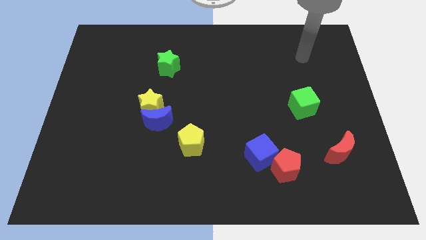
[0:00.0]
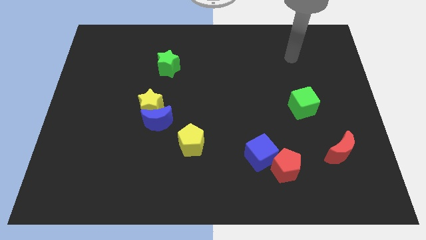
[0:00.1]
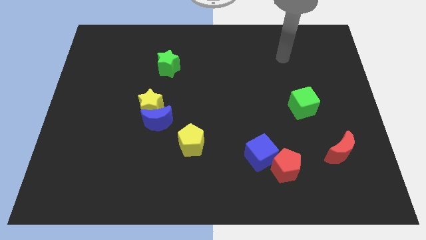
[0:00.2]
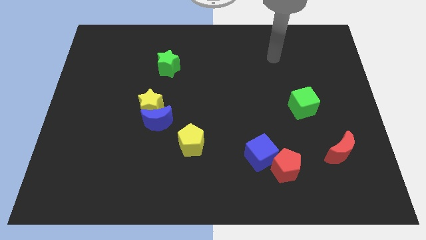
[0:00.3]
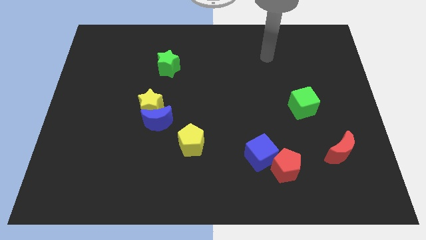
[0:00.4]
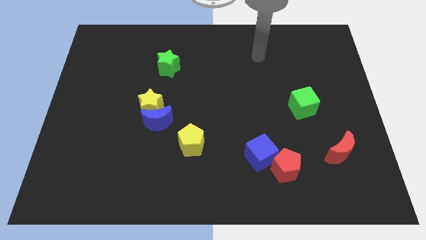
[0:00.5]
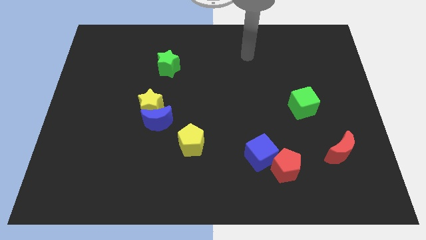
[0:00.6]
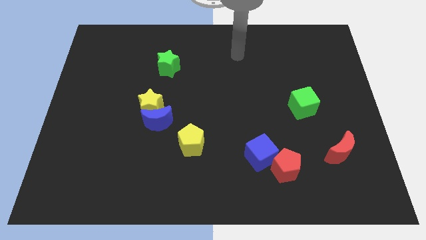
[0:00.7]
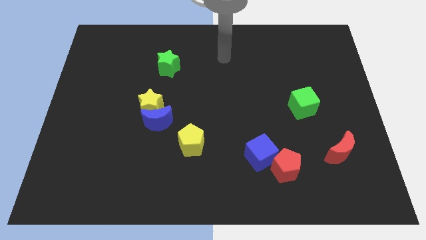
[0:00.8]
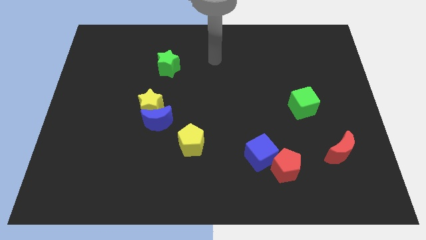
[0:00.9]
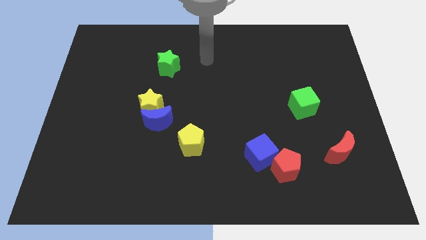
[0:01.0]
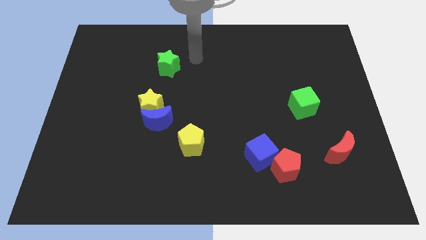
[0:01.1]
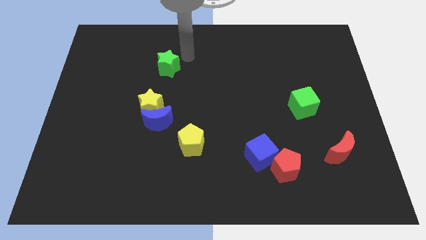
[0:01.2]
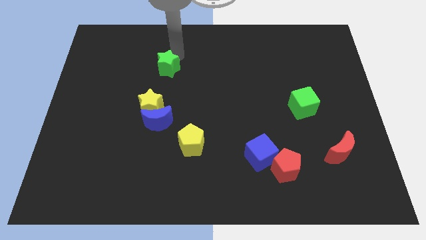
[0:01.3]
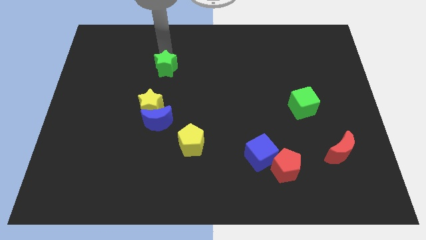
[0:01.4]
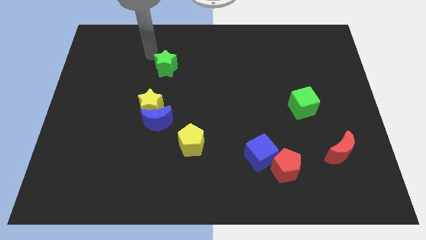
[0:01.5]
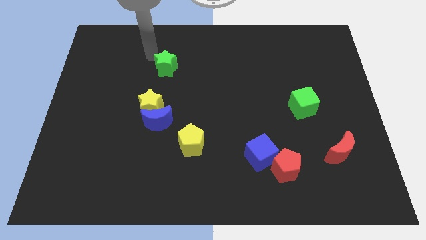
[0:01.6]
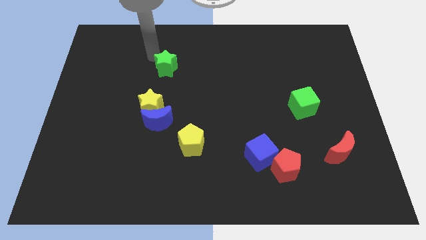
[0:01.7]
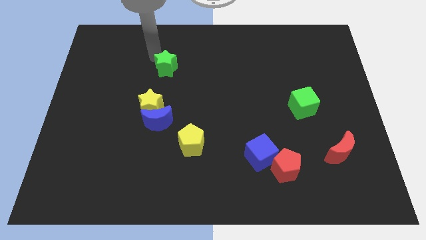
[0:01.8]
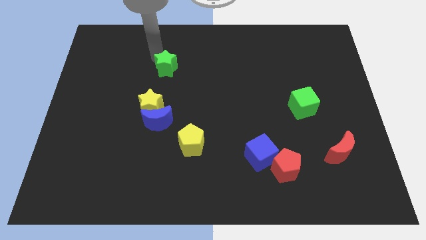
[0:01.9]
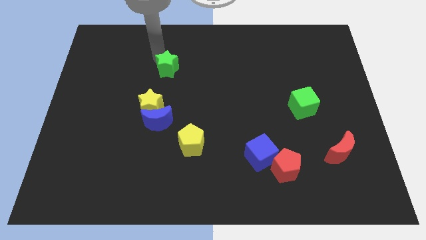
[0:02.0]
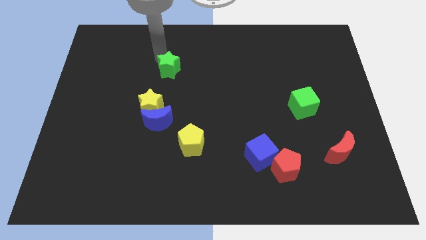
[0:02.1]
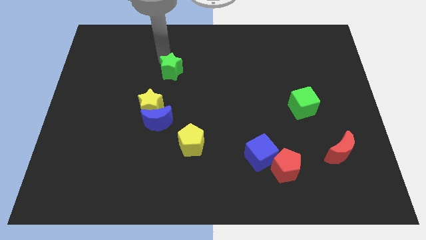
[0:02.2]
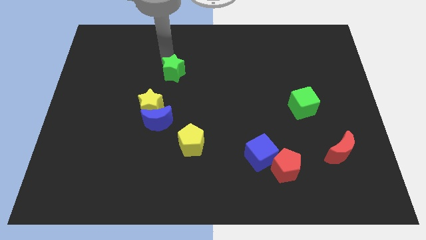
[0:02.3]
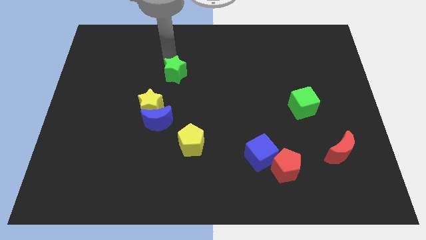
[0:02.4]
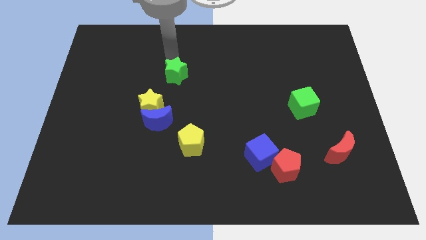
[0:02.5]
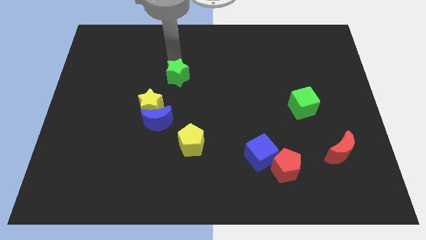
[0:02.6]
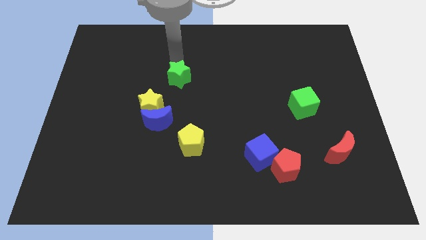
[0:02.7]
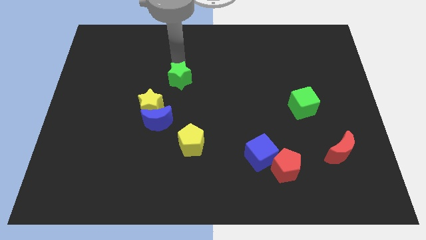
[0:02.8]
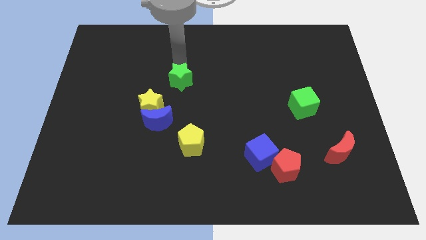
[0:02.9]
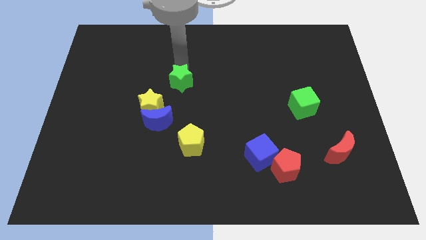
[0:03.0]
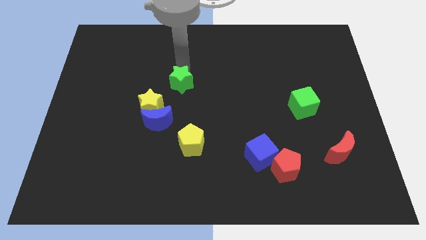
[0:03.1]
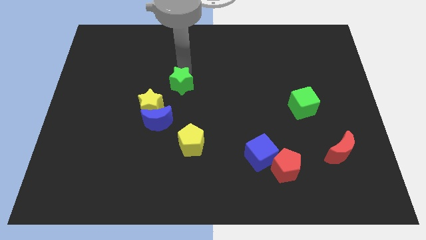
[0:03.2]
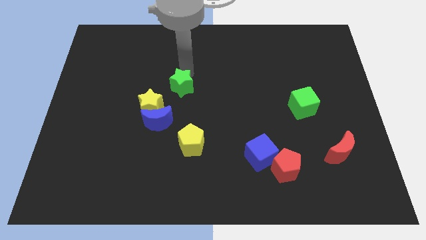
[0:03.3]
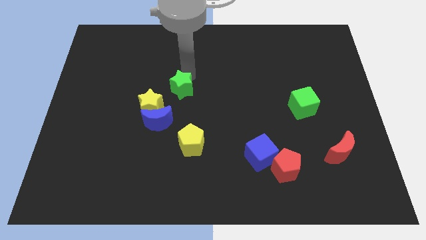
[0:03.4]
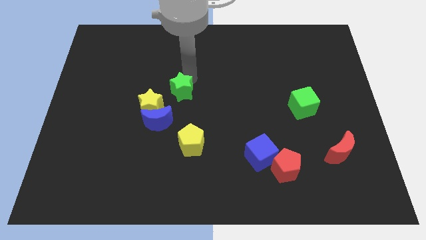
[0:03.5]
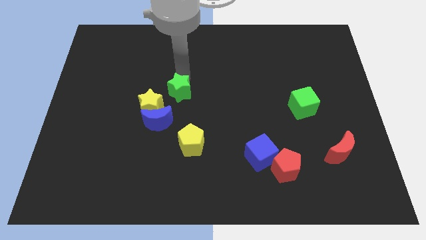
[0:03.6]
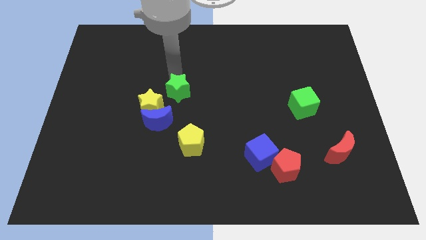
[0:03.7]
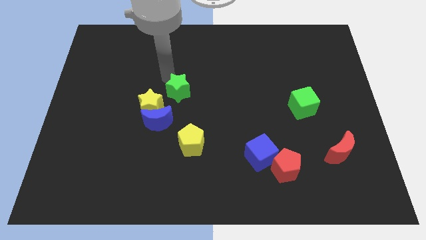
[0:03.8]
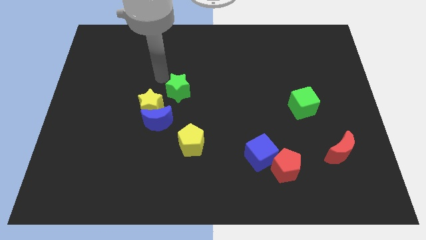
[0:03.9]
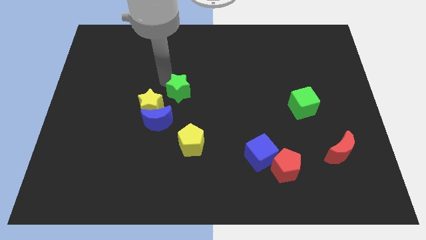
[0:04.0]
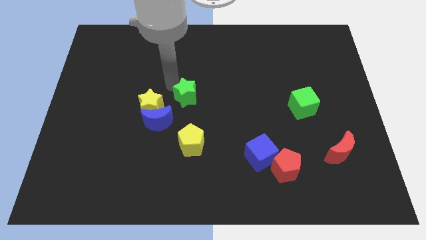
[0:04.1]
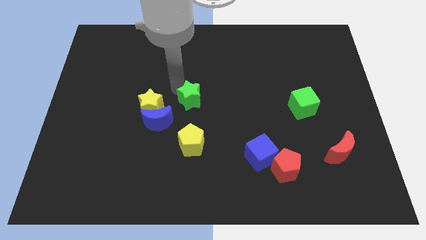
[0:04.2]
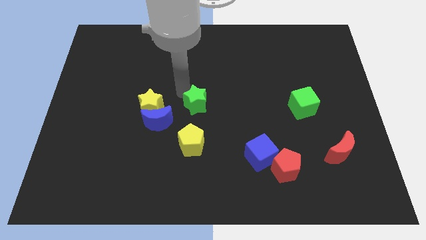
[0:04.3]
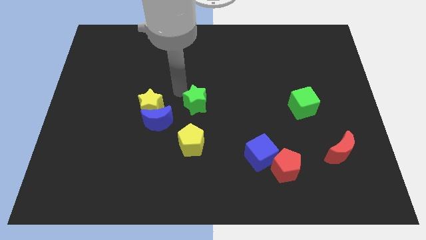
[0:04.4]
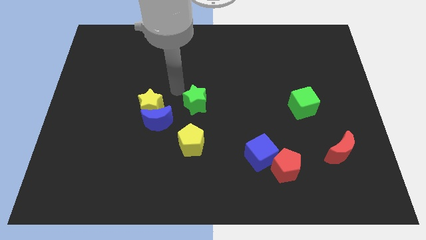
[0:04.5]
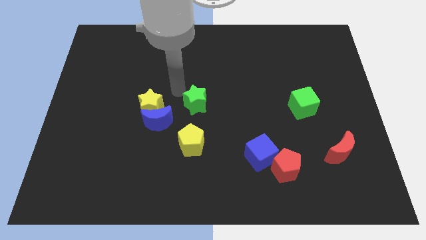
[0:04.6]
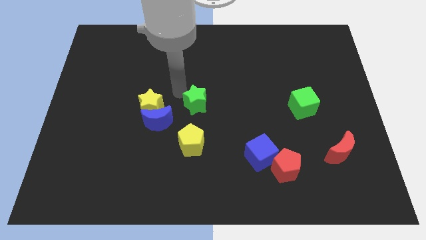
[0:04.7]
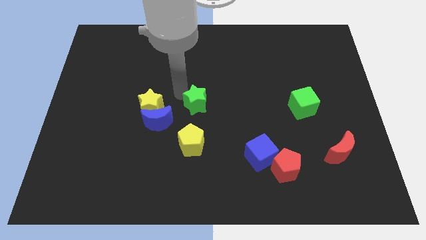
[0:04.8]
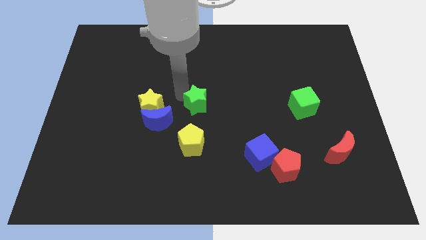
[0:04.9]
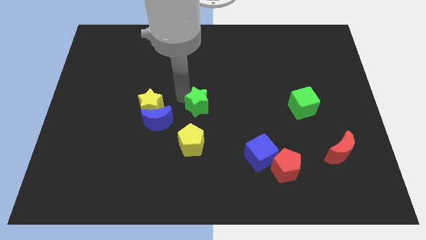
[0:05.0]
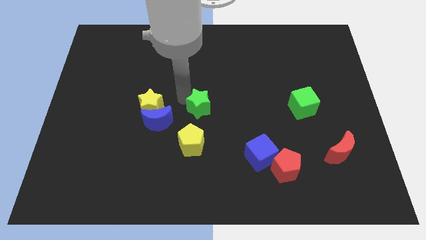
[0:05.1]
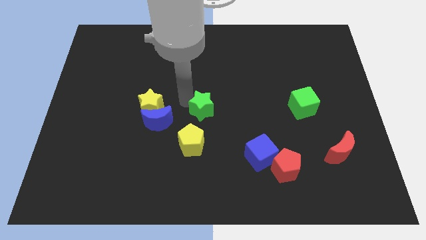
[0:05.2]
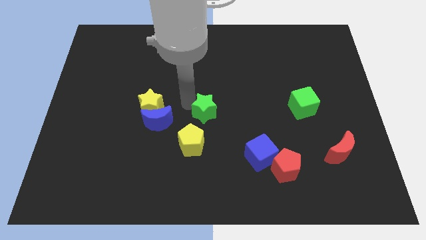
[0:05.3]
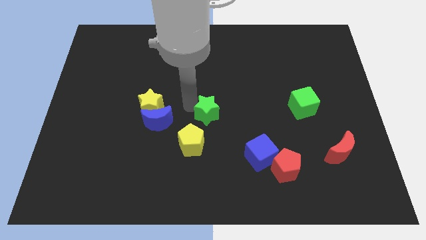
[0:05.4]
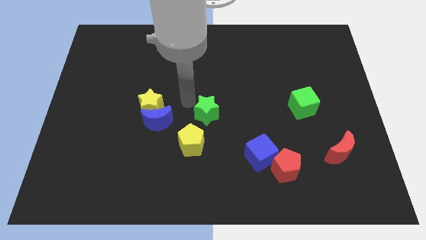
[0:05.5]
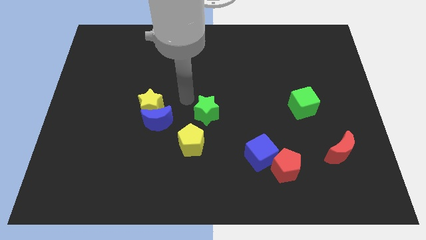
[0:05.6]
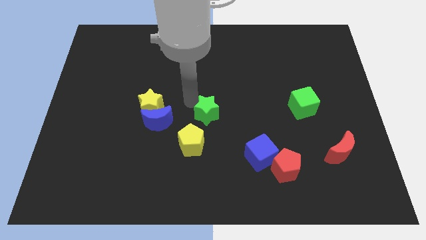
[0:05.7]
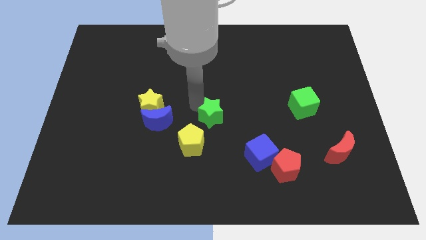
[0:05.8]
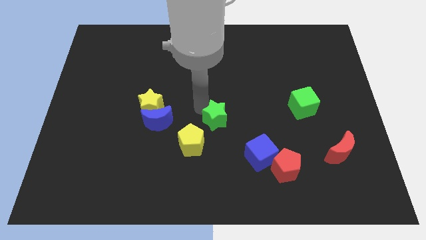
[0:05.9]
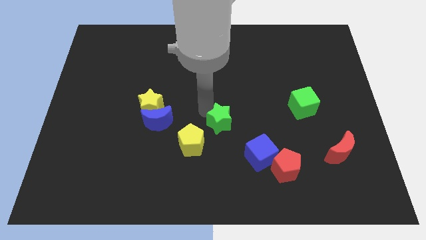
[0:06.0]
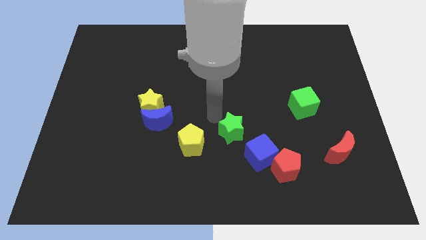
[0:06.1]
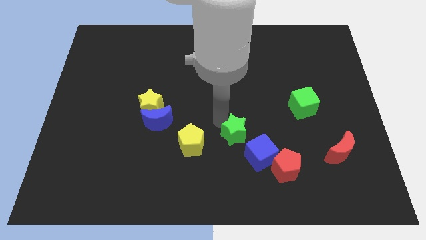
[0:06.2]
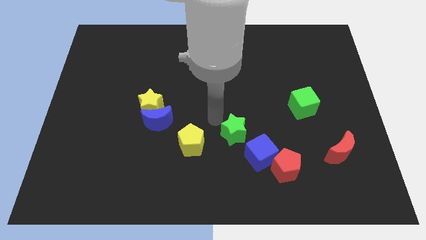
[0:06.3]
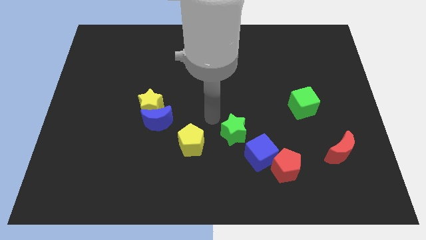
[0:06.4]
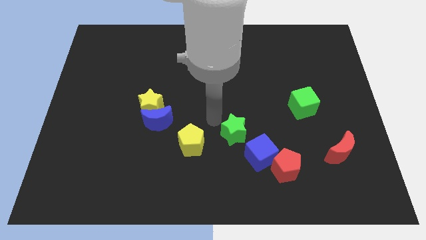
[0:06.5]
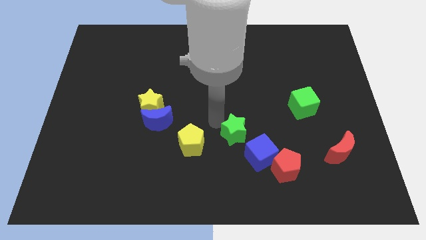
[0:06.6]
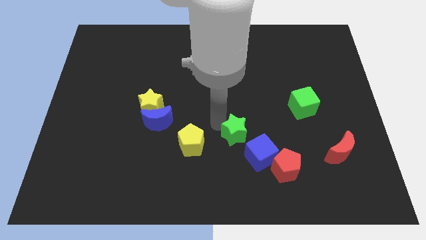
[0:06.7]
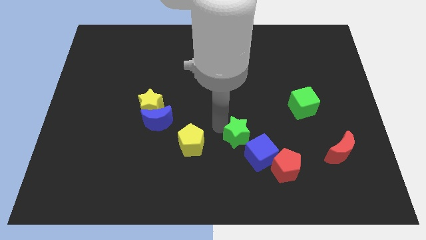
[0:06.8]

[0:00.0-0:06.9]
move the green star to the top left side of the red pentagon

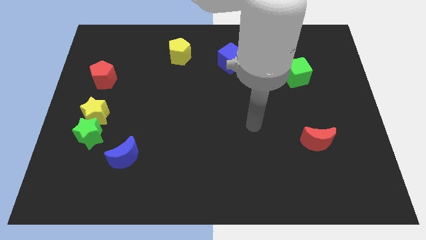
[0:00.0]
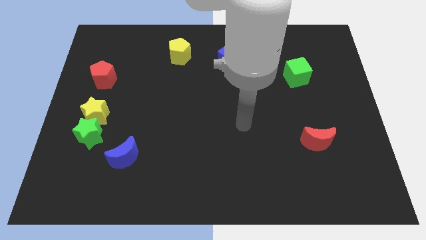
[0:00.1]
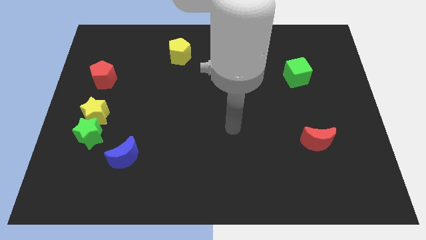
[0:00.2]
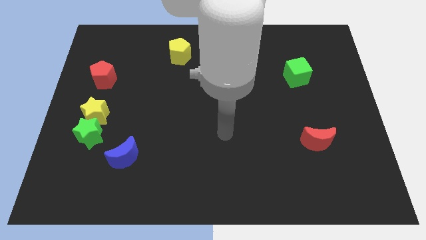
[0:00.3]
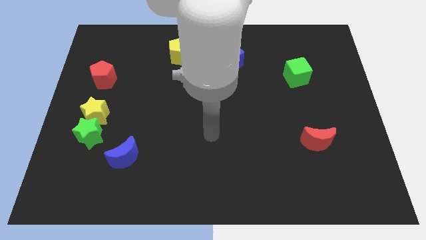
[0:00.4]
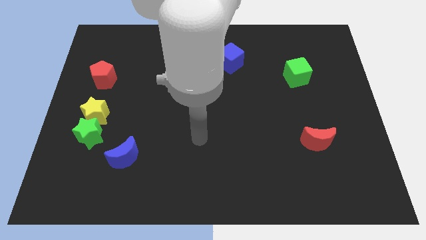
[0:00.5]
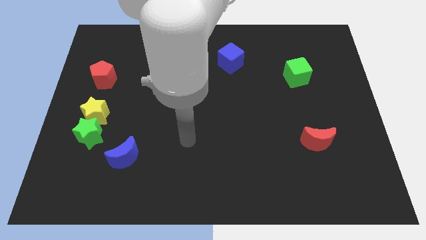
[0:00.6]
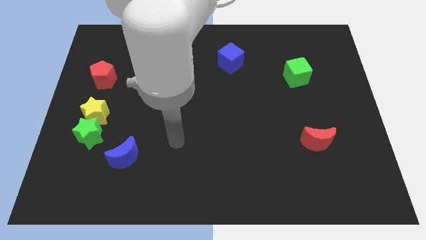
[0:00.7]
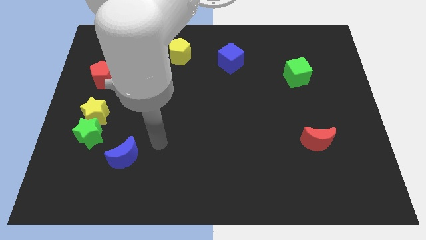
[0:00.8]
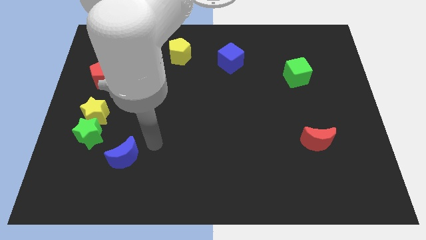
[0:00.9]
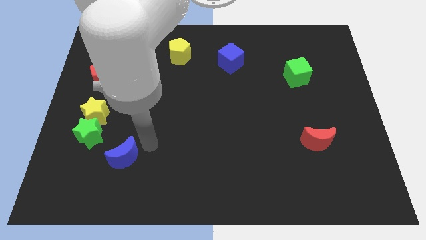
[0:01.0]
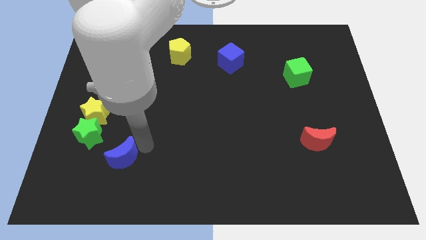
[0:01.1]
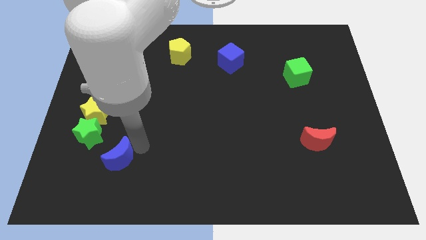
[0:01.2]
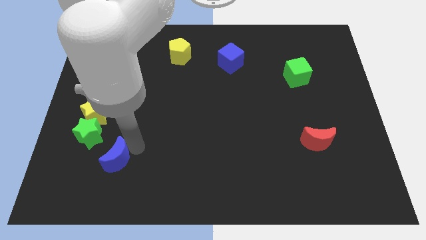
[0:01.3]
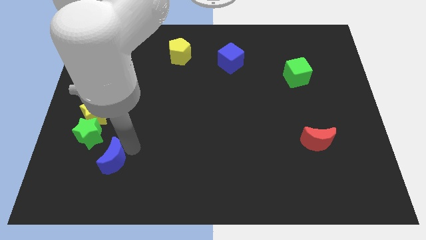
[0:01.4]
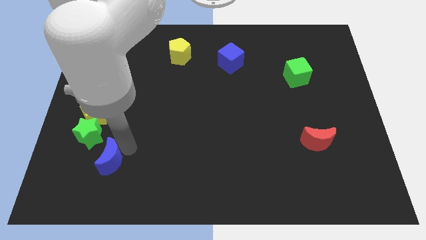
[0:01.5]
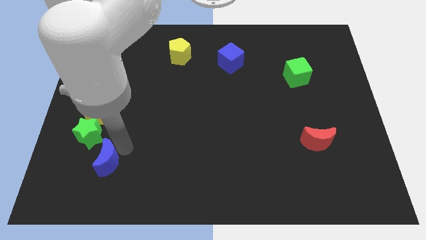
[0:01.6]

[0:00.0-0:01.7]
slide the blue moon to the bottom side of the green star
